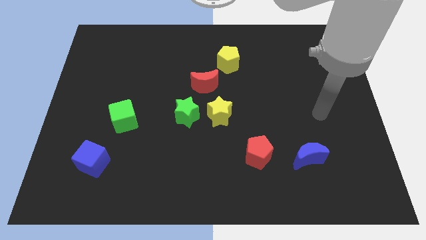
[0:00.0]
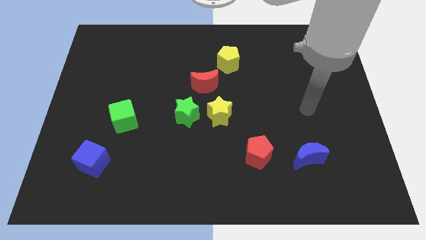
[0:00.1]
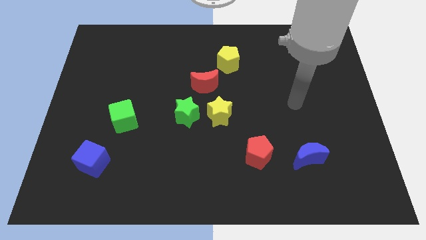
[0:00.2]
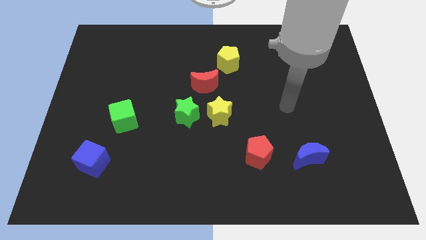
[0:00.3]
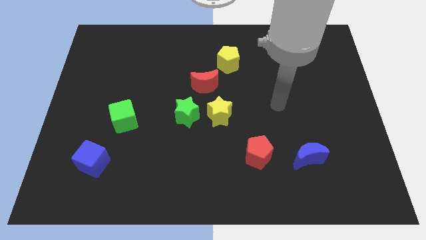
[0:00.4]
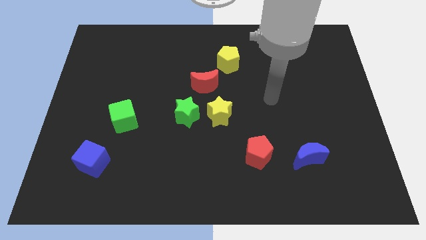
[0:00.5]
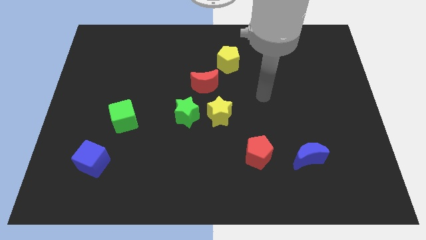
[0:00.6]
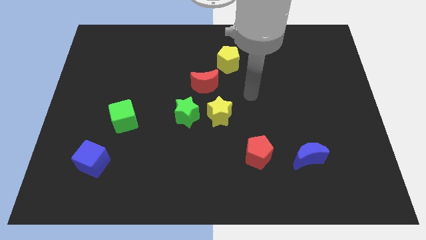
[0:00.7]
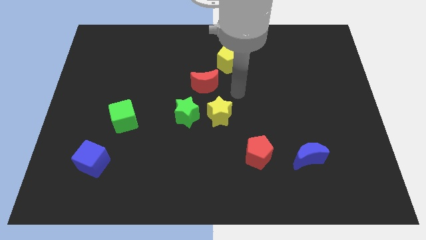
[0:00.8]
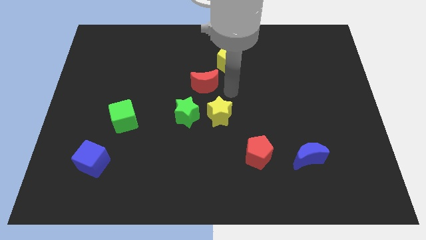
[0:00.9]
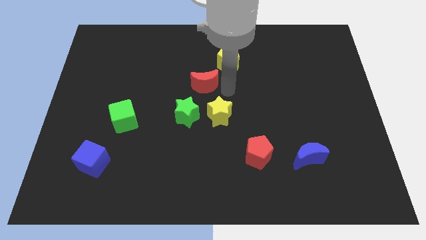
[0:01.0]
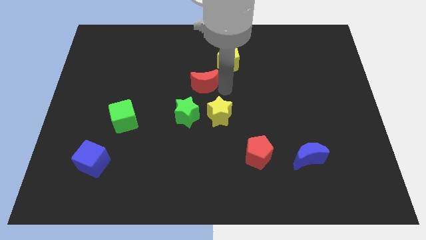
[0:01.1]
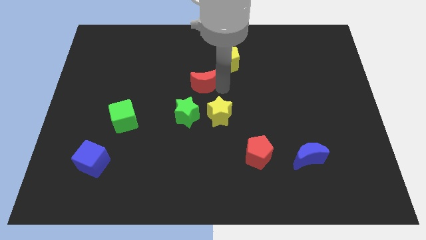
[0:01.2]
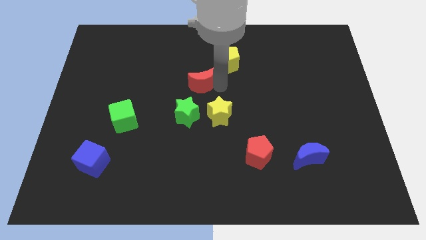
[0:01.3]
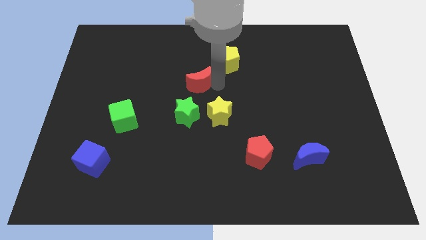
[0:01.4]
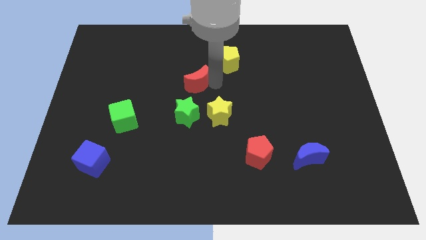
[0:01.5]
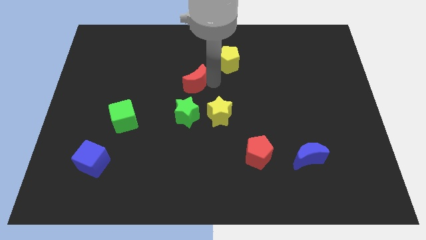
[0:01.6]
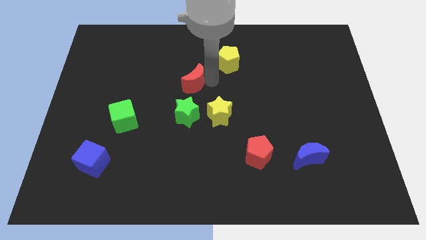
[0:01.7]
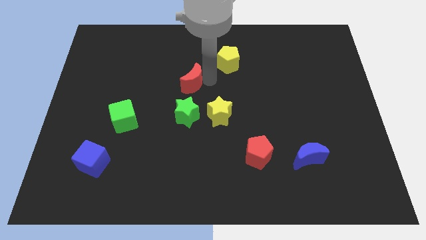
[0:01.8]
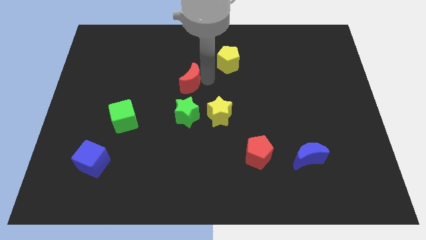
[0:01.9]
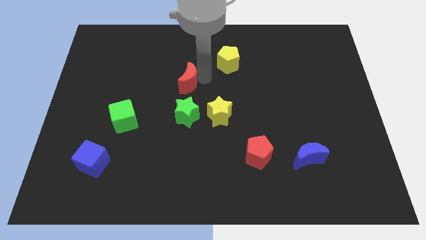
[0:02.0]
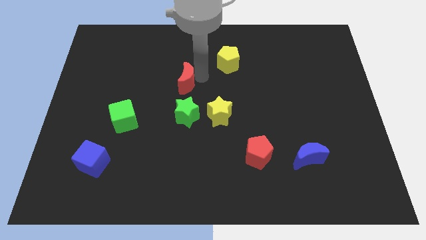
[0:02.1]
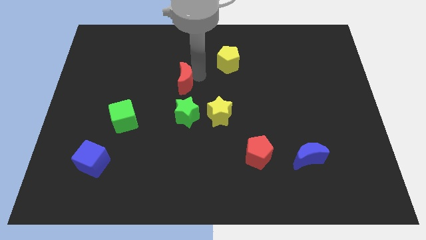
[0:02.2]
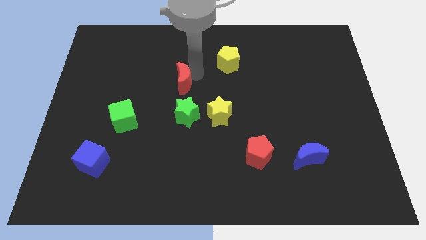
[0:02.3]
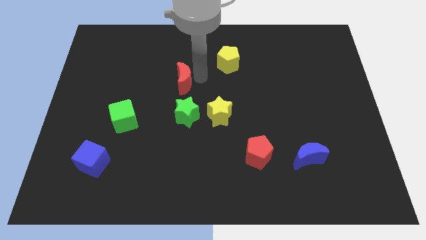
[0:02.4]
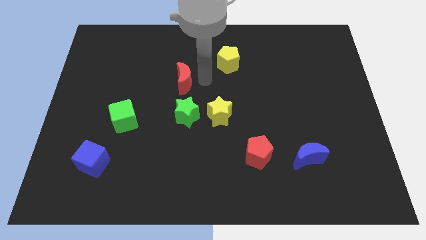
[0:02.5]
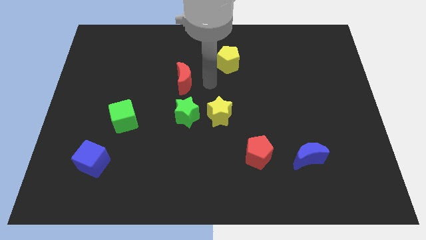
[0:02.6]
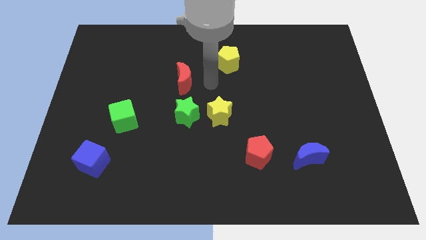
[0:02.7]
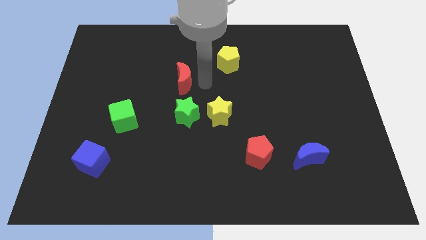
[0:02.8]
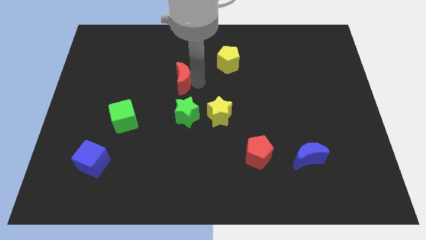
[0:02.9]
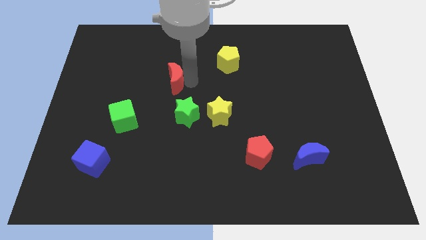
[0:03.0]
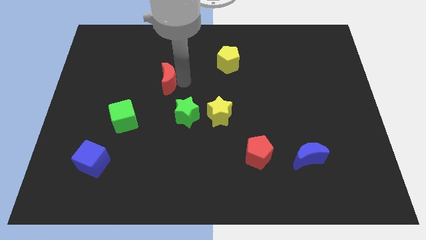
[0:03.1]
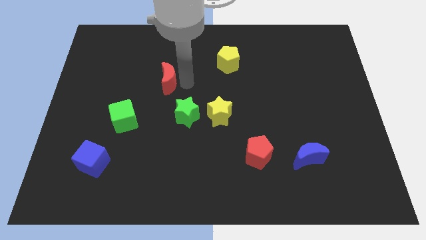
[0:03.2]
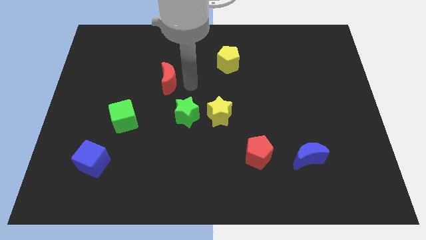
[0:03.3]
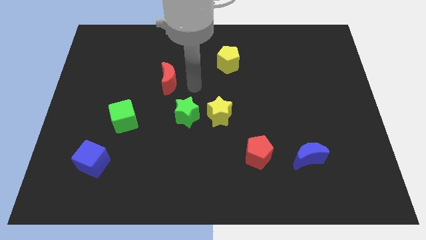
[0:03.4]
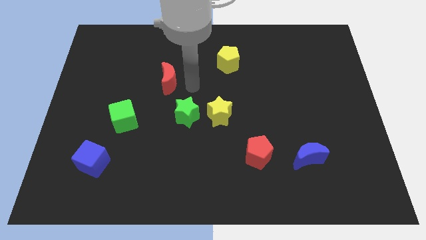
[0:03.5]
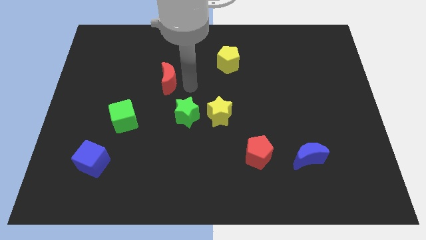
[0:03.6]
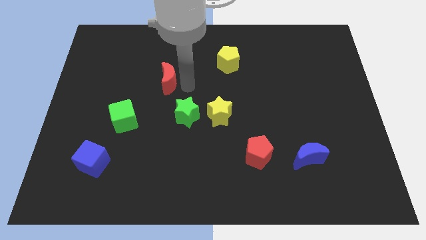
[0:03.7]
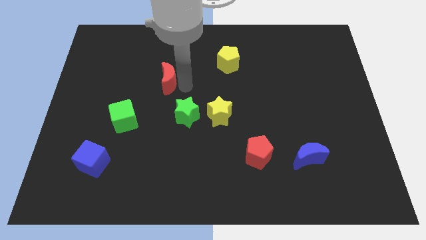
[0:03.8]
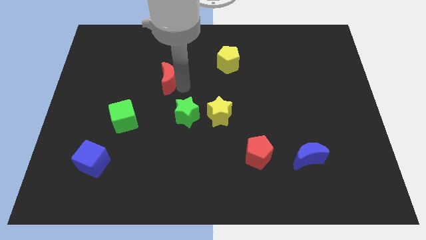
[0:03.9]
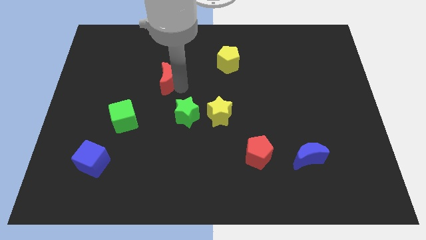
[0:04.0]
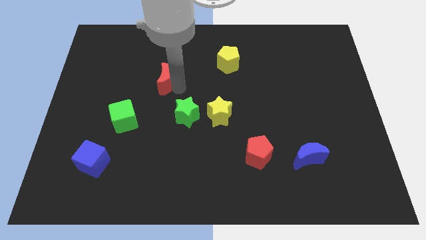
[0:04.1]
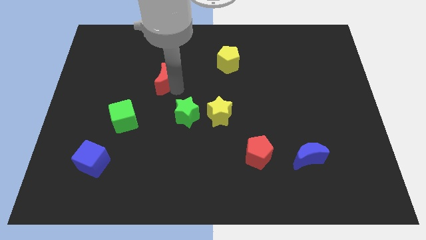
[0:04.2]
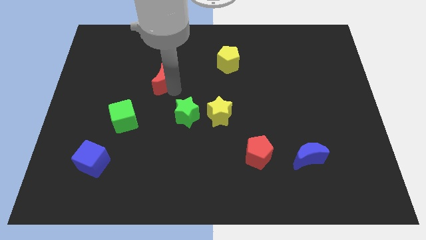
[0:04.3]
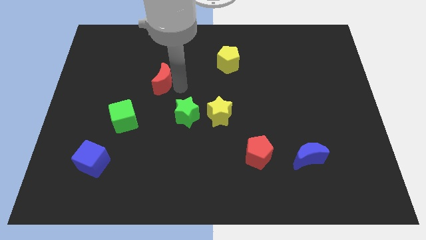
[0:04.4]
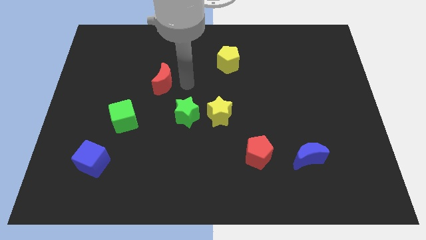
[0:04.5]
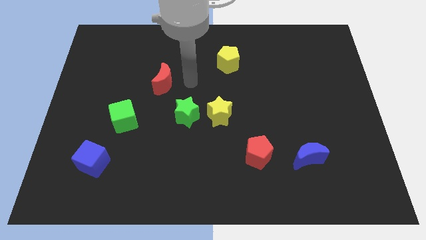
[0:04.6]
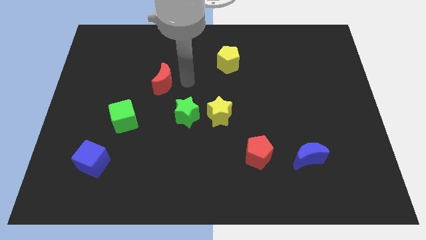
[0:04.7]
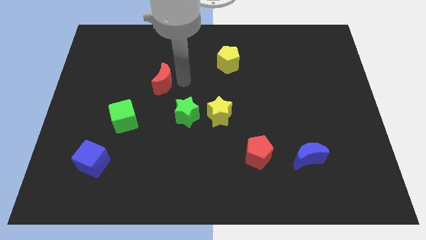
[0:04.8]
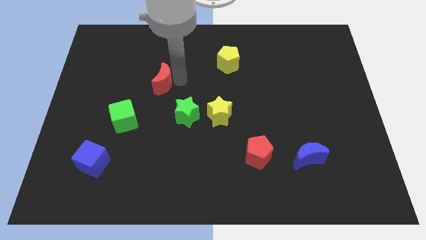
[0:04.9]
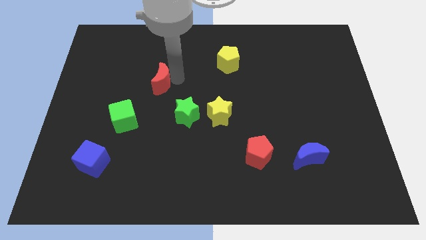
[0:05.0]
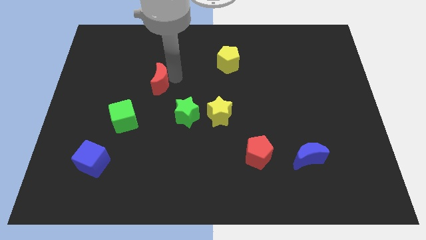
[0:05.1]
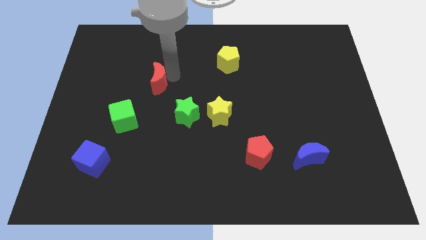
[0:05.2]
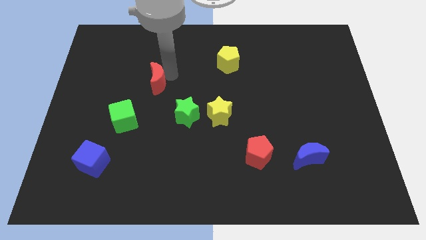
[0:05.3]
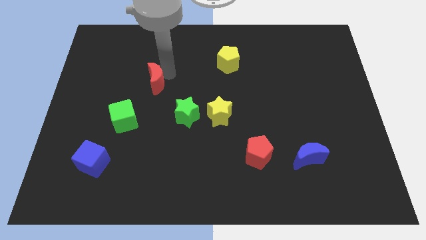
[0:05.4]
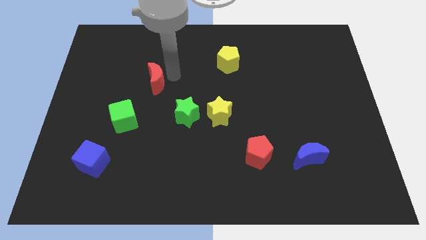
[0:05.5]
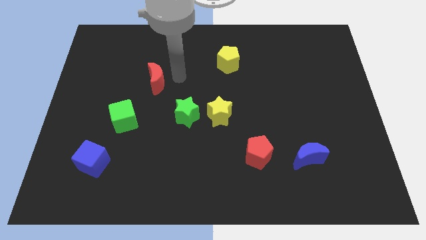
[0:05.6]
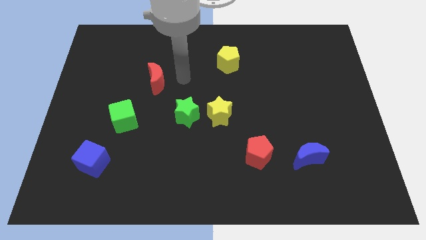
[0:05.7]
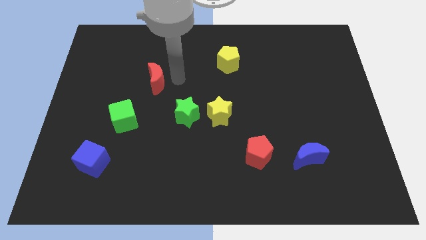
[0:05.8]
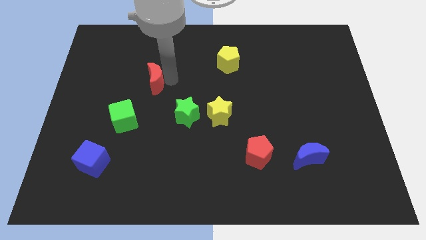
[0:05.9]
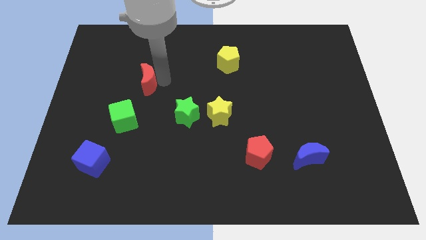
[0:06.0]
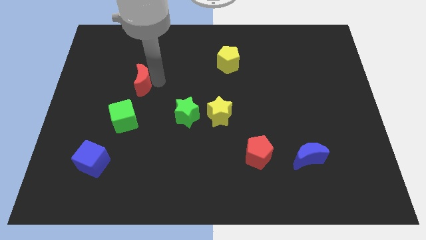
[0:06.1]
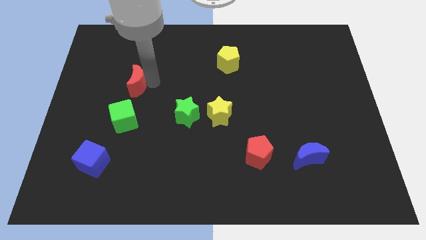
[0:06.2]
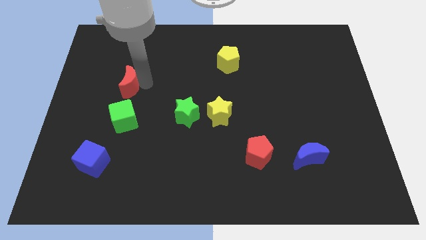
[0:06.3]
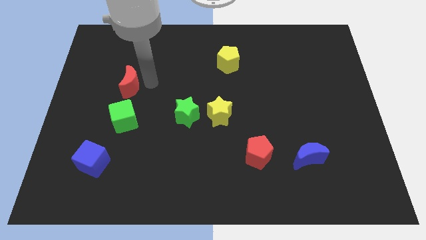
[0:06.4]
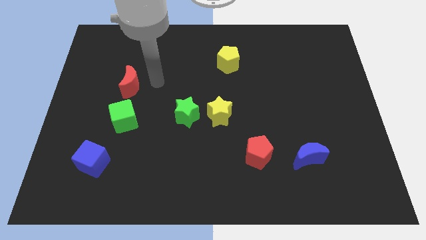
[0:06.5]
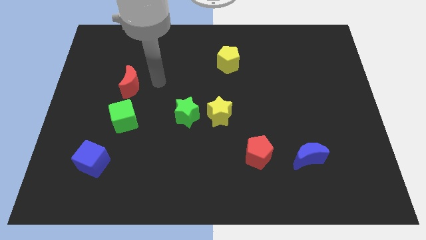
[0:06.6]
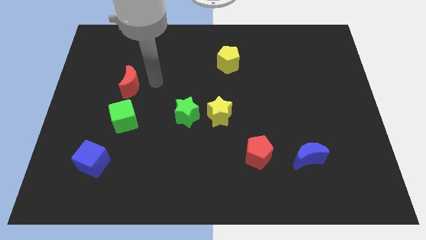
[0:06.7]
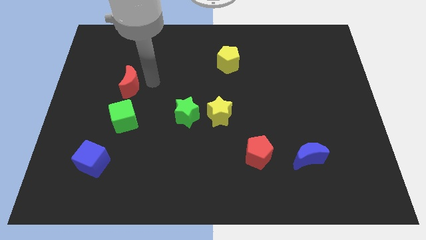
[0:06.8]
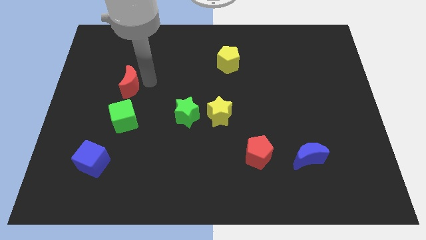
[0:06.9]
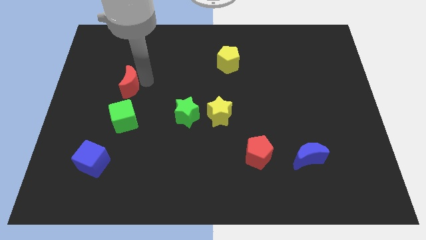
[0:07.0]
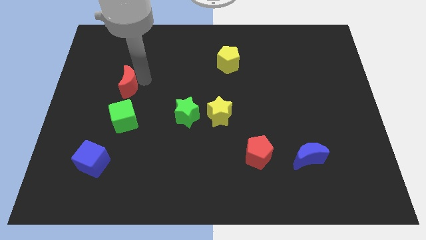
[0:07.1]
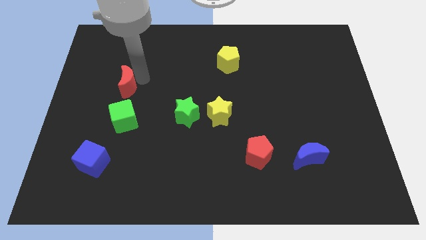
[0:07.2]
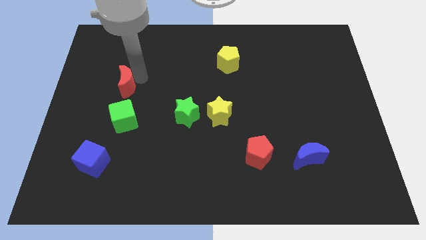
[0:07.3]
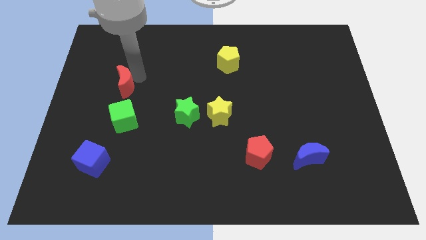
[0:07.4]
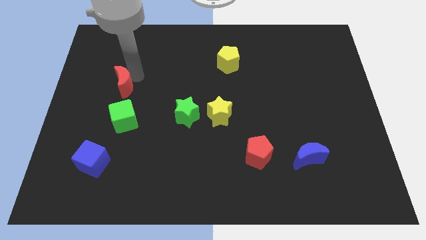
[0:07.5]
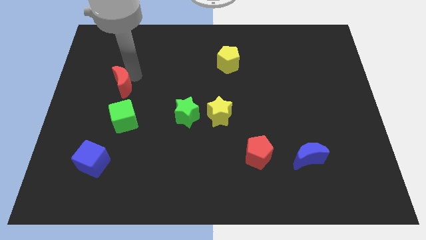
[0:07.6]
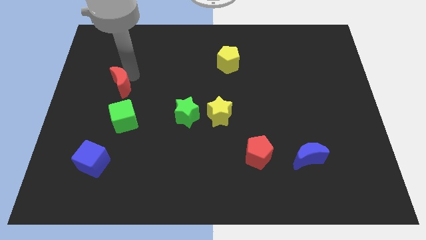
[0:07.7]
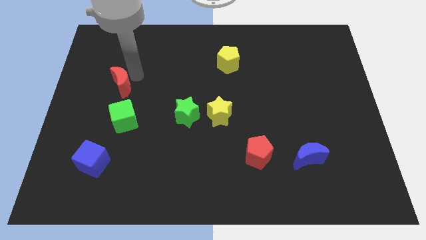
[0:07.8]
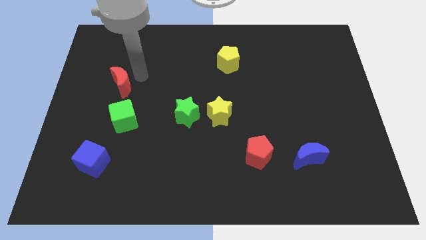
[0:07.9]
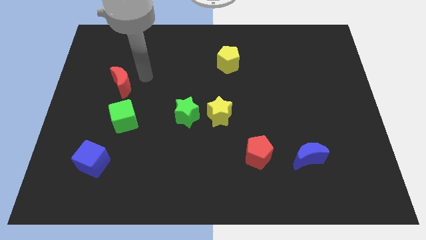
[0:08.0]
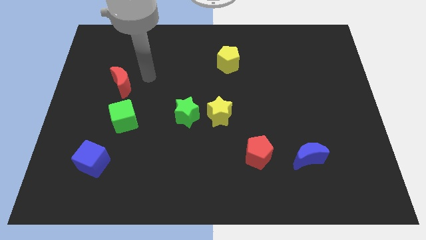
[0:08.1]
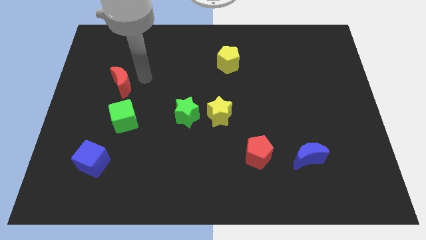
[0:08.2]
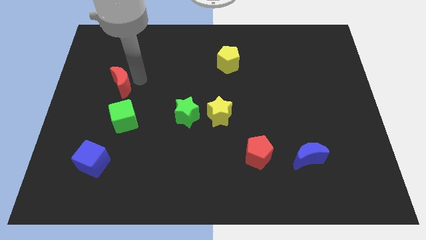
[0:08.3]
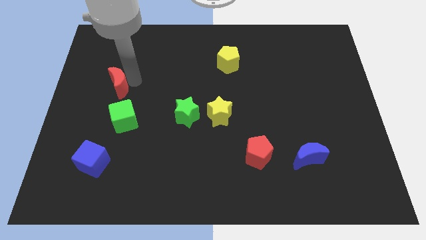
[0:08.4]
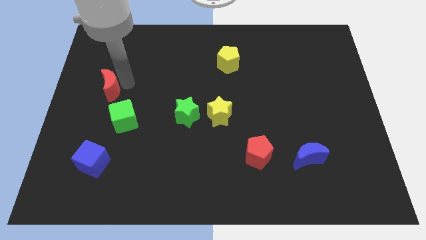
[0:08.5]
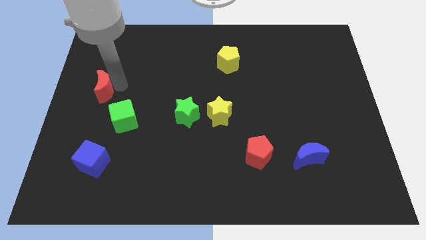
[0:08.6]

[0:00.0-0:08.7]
move the red moon to the center left
